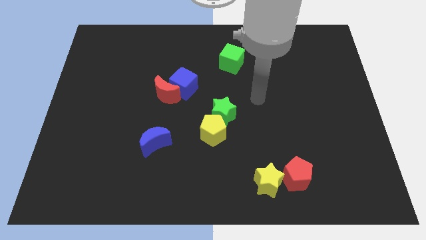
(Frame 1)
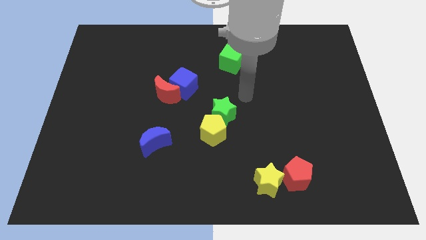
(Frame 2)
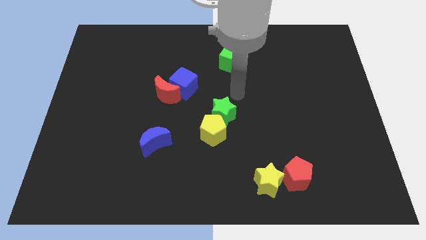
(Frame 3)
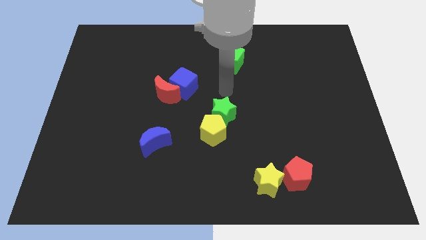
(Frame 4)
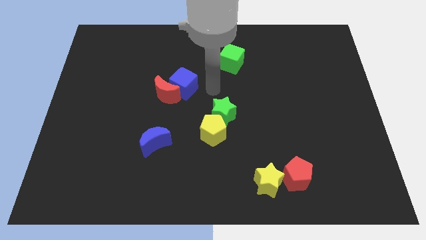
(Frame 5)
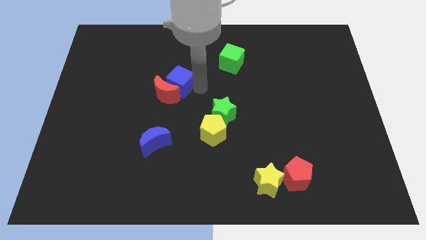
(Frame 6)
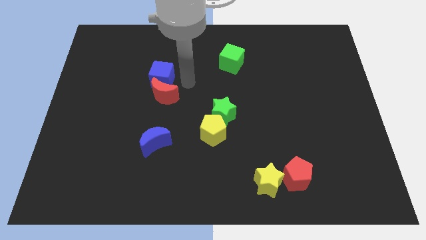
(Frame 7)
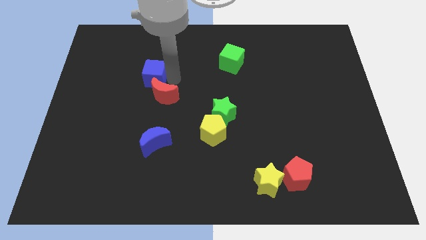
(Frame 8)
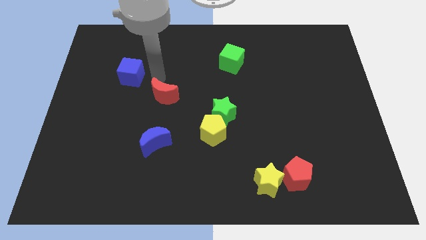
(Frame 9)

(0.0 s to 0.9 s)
pull the red moon apart from the blue cube

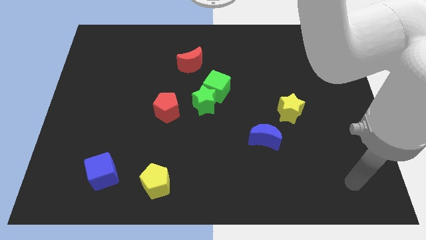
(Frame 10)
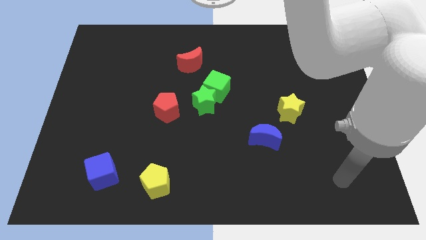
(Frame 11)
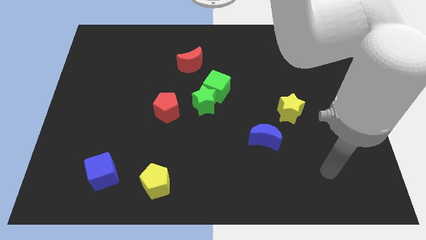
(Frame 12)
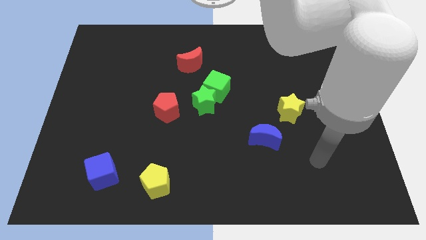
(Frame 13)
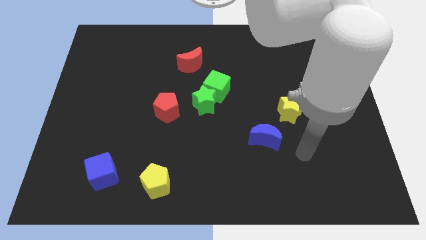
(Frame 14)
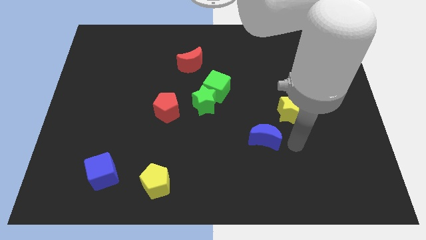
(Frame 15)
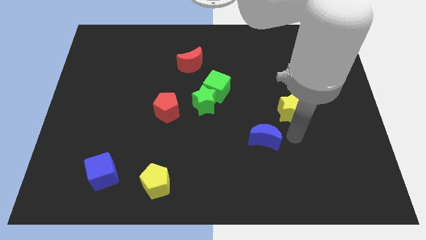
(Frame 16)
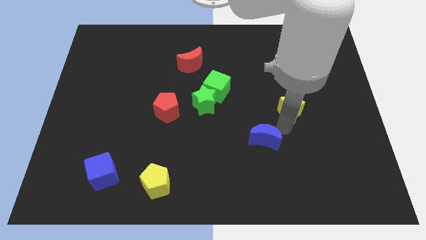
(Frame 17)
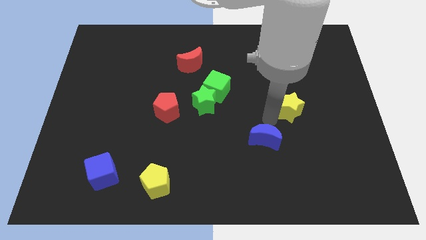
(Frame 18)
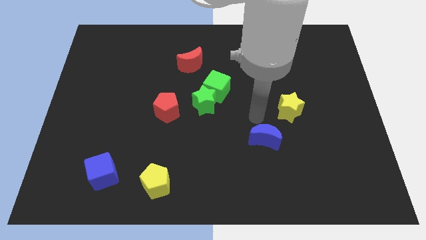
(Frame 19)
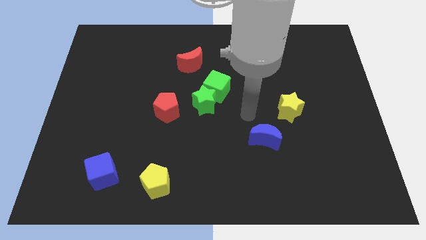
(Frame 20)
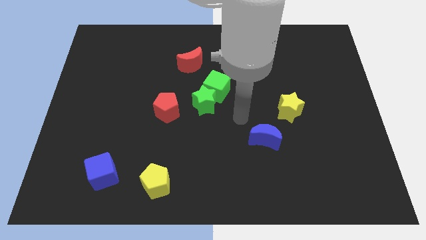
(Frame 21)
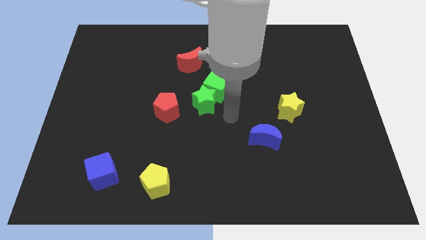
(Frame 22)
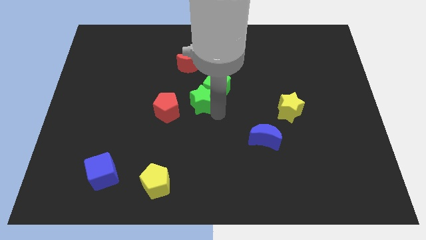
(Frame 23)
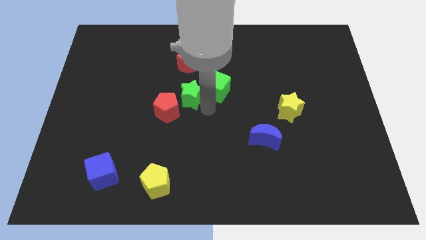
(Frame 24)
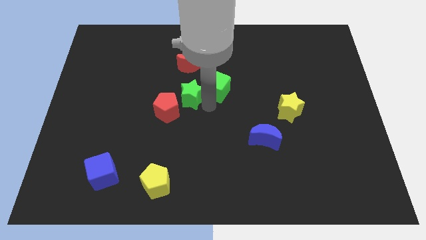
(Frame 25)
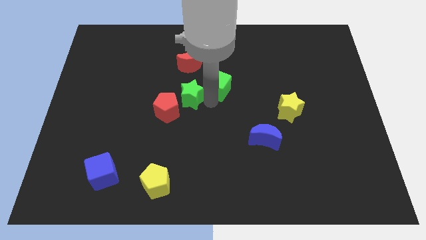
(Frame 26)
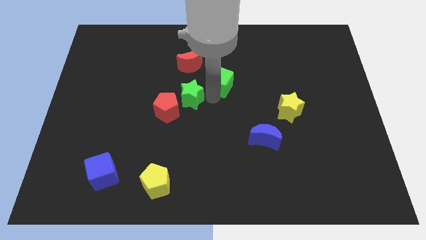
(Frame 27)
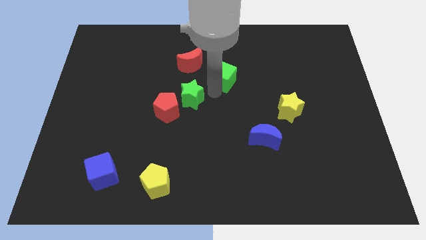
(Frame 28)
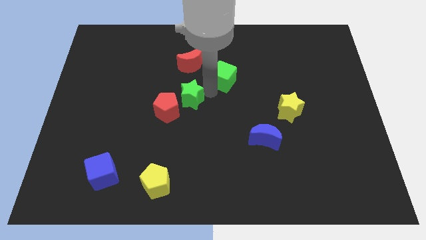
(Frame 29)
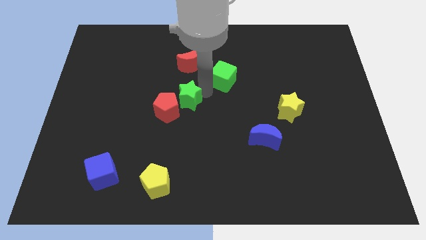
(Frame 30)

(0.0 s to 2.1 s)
move the green cube away from the green star

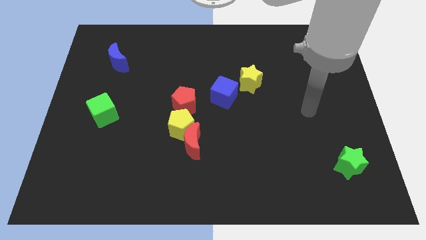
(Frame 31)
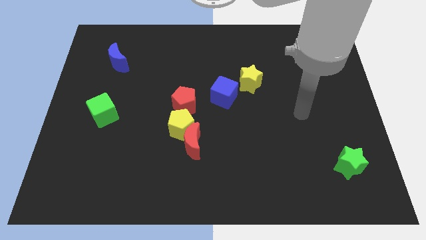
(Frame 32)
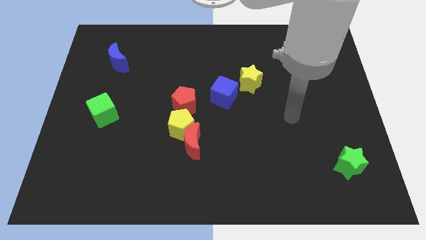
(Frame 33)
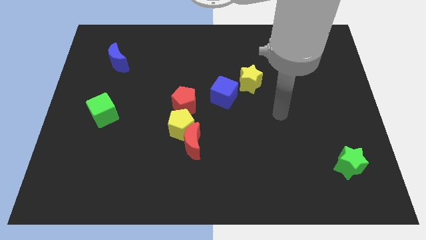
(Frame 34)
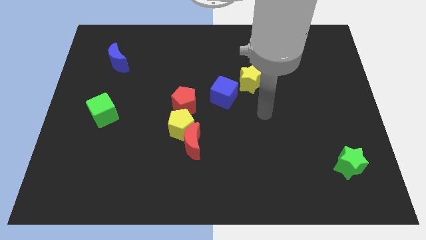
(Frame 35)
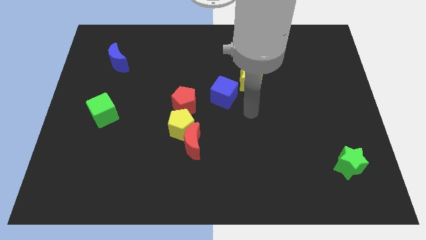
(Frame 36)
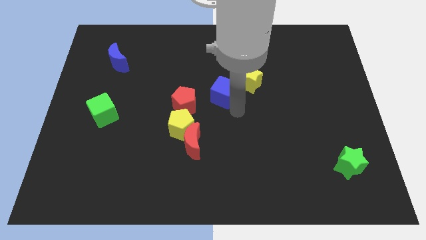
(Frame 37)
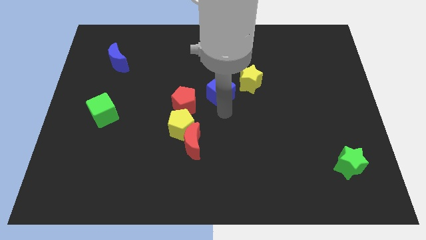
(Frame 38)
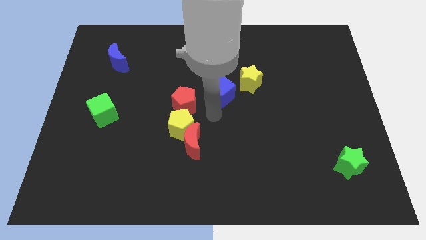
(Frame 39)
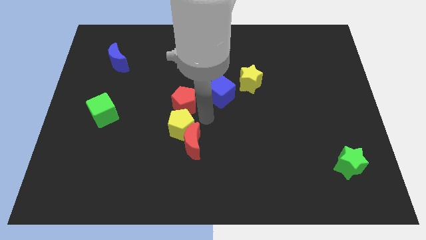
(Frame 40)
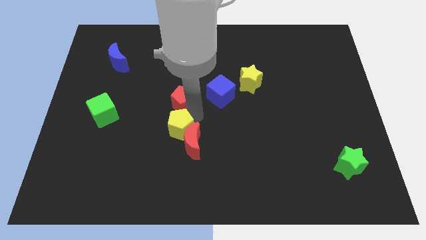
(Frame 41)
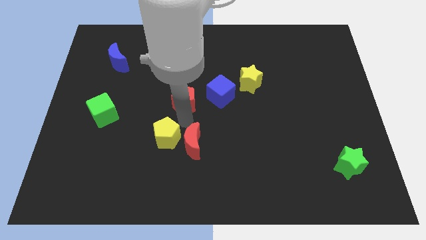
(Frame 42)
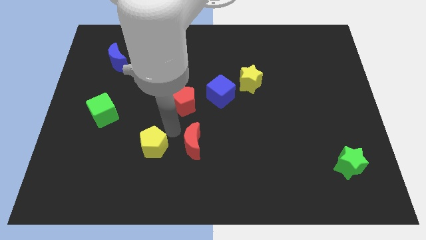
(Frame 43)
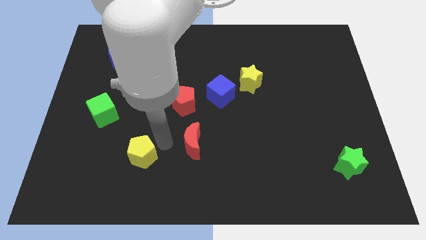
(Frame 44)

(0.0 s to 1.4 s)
pull the red moon apart from the yellow pentagon

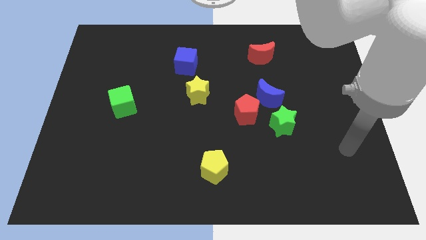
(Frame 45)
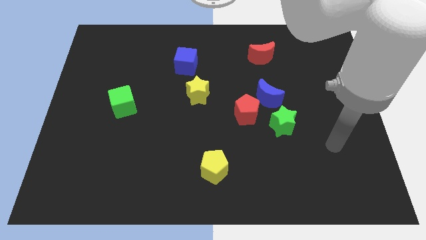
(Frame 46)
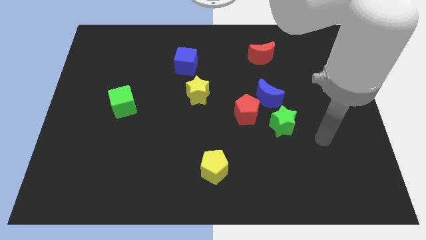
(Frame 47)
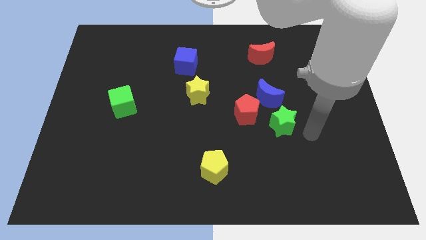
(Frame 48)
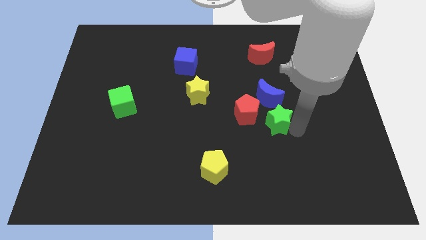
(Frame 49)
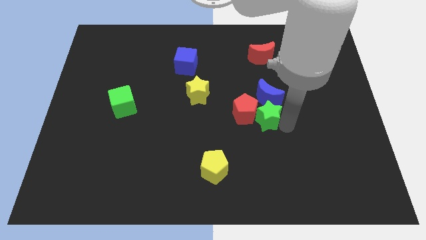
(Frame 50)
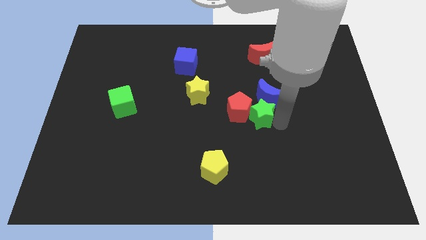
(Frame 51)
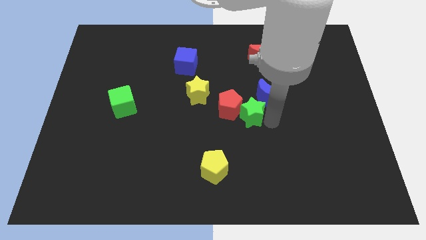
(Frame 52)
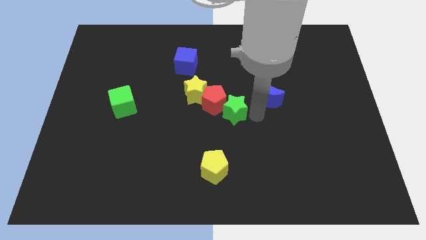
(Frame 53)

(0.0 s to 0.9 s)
move the blue moon away from the red pentagon and green star

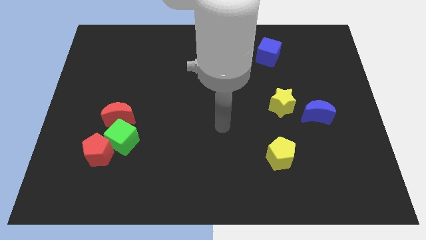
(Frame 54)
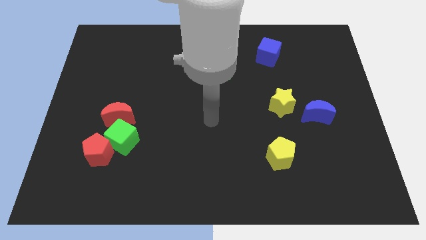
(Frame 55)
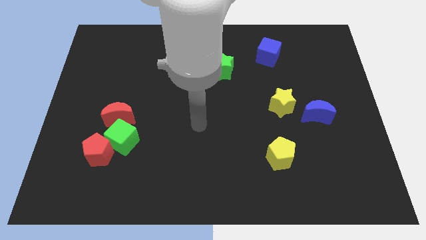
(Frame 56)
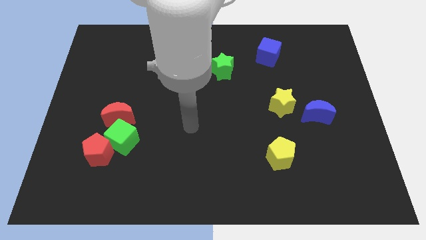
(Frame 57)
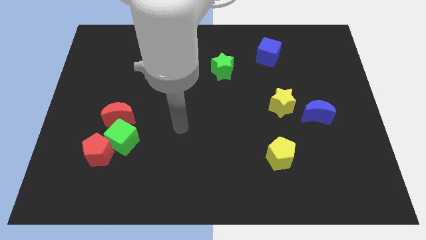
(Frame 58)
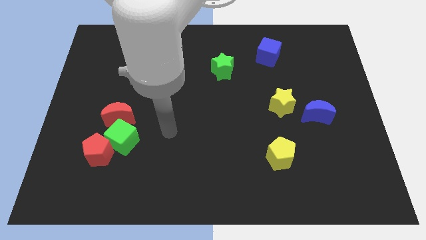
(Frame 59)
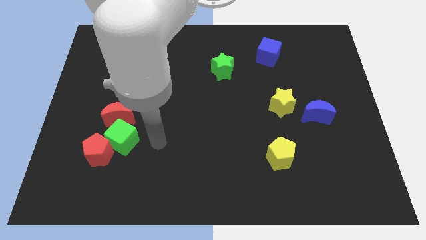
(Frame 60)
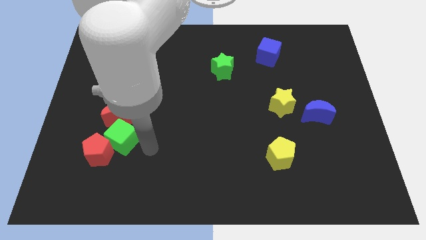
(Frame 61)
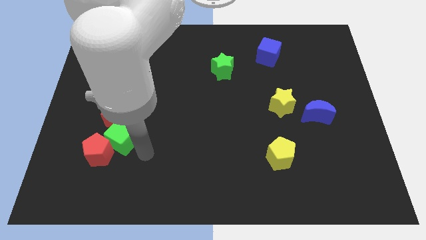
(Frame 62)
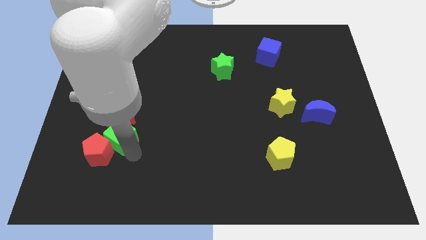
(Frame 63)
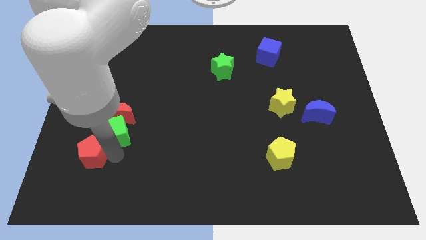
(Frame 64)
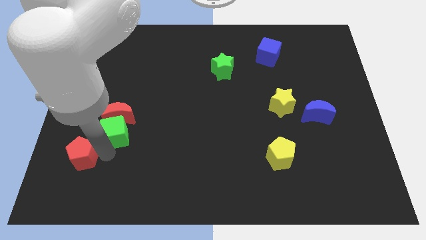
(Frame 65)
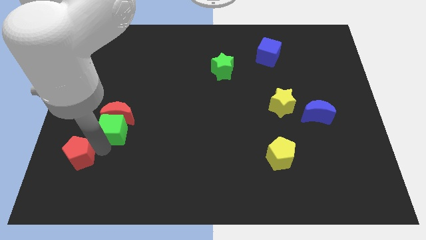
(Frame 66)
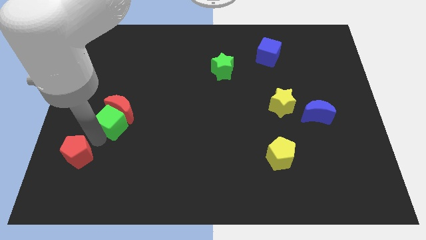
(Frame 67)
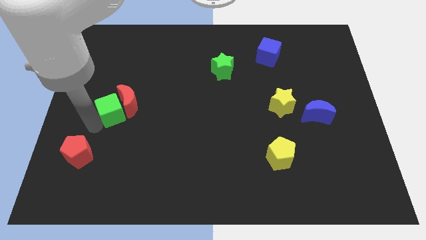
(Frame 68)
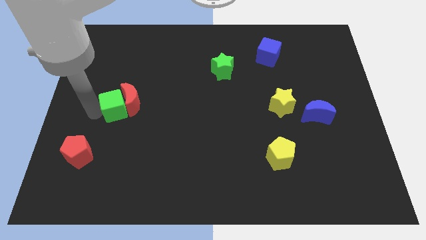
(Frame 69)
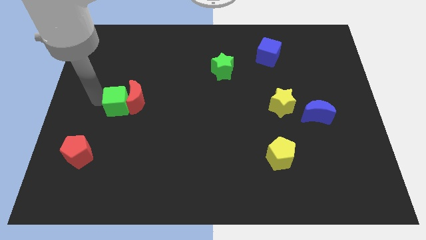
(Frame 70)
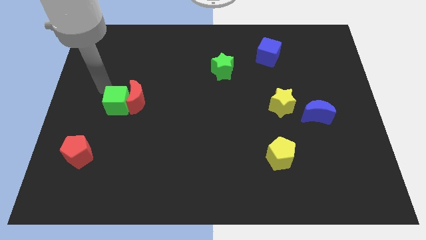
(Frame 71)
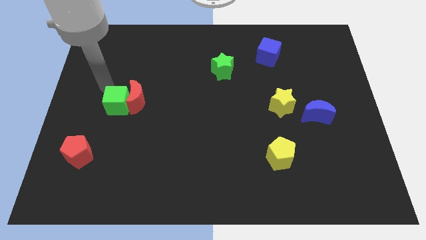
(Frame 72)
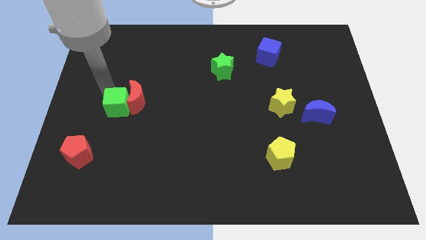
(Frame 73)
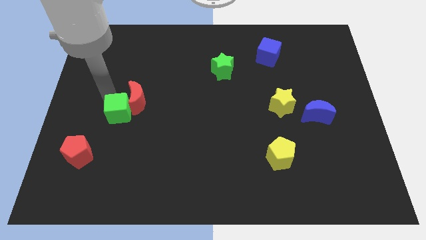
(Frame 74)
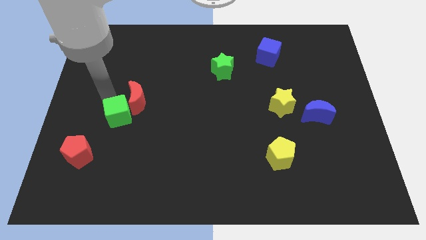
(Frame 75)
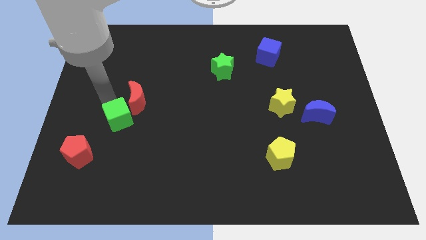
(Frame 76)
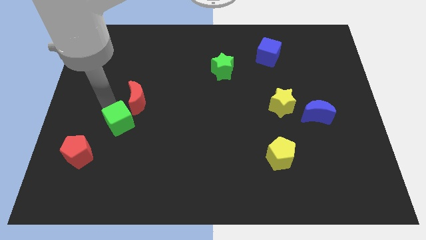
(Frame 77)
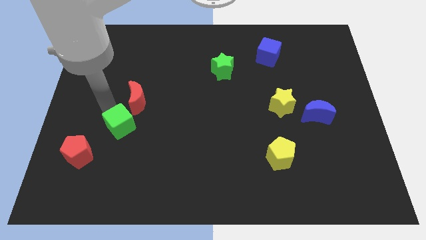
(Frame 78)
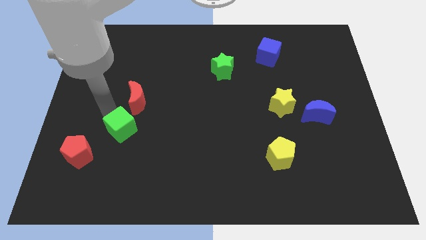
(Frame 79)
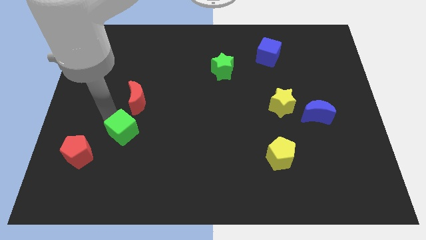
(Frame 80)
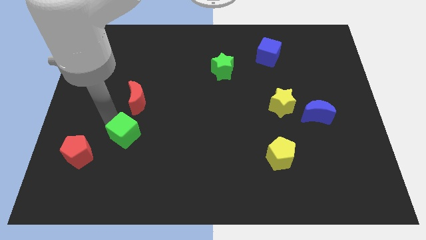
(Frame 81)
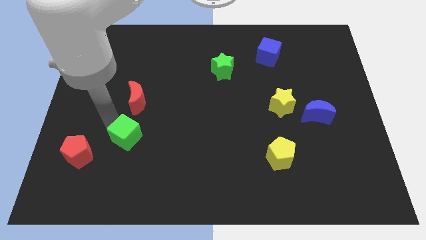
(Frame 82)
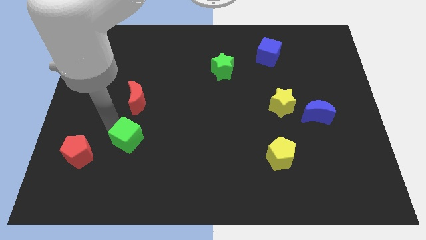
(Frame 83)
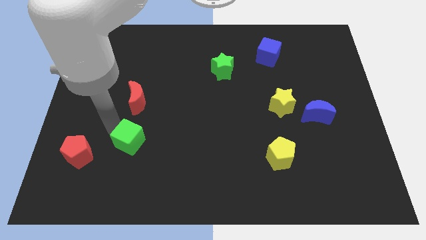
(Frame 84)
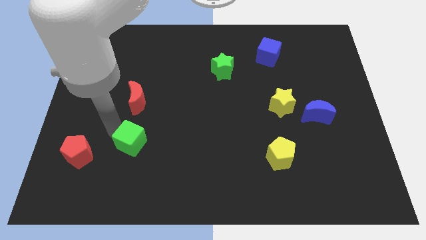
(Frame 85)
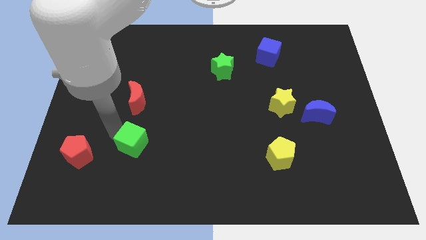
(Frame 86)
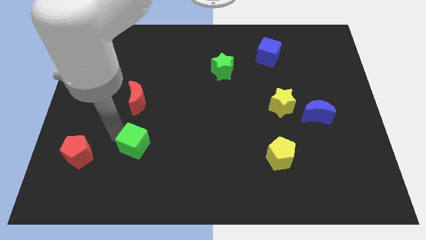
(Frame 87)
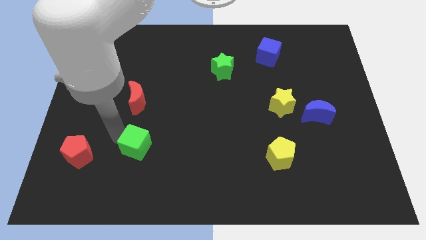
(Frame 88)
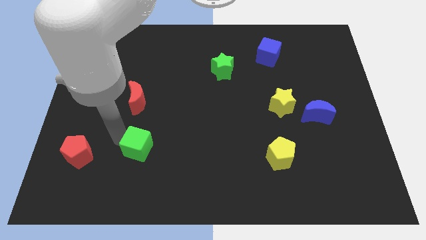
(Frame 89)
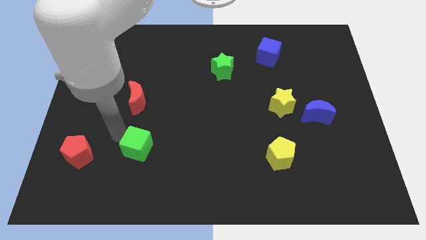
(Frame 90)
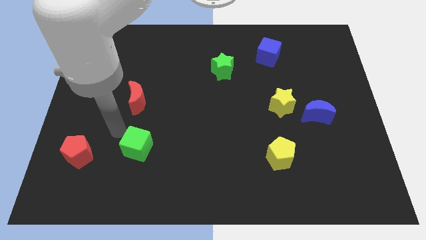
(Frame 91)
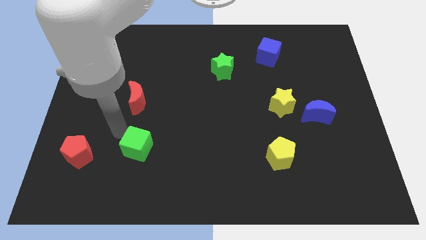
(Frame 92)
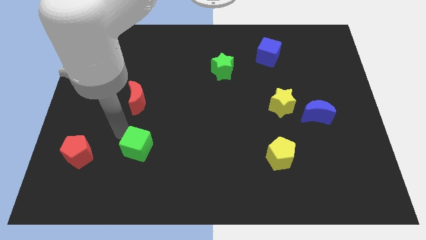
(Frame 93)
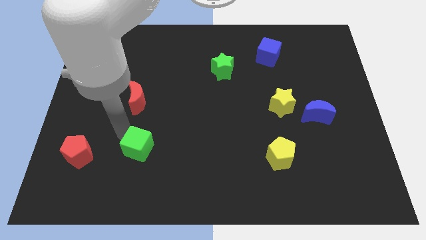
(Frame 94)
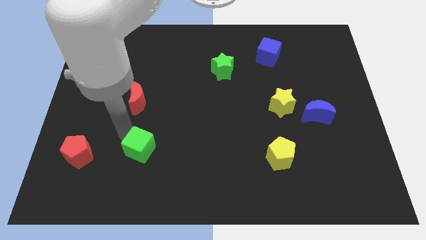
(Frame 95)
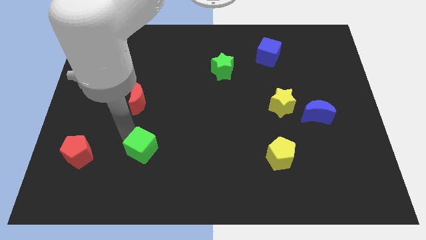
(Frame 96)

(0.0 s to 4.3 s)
separate the green cube from the red pentagon and red moon
